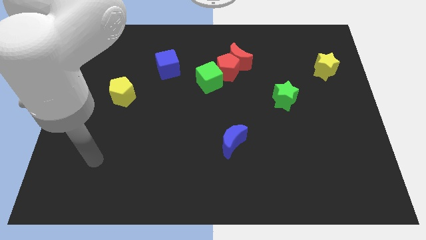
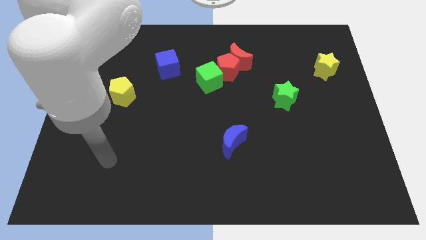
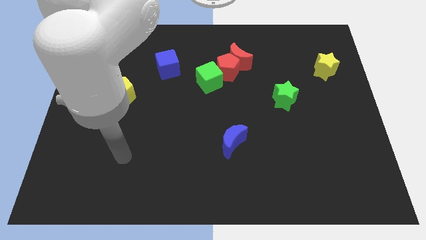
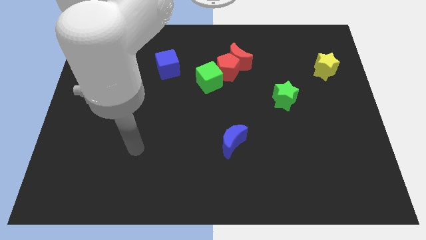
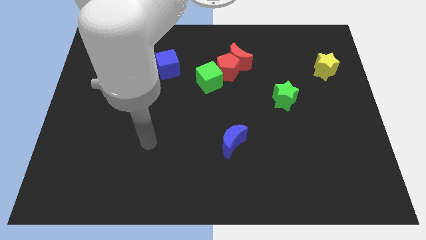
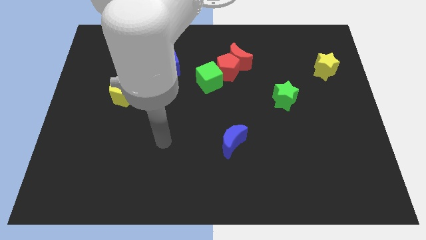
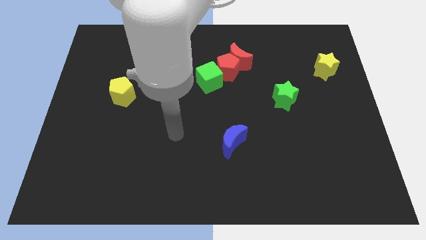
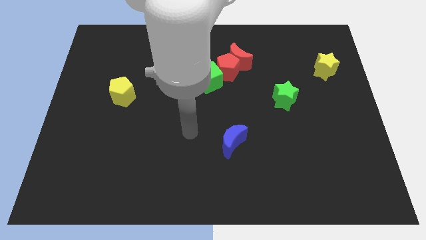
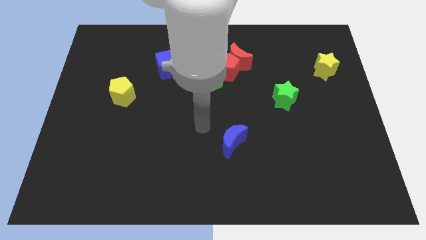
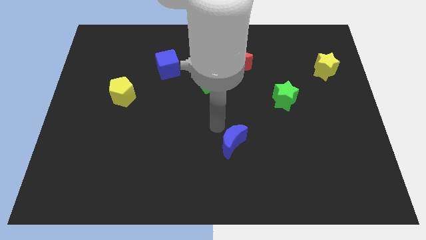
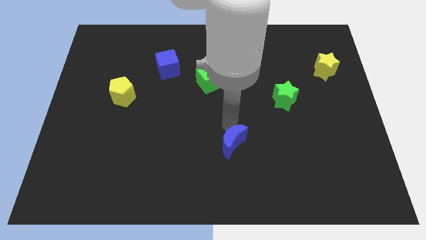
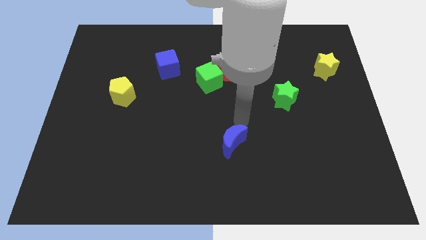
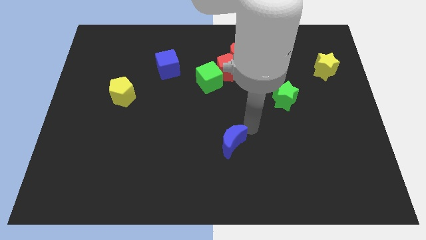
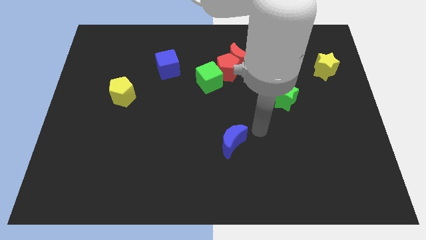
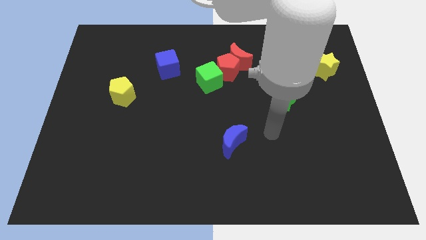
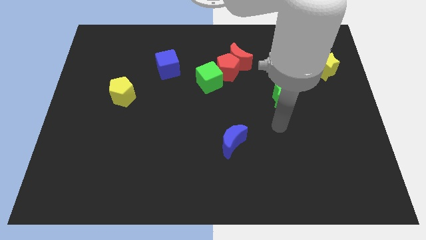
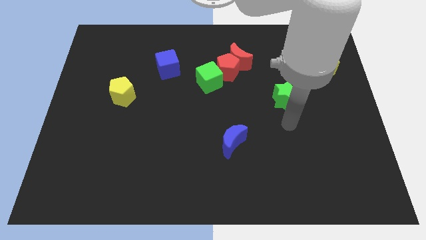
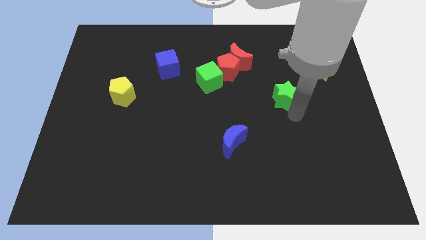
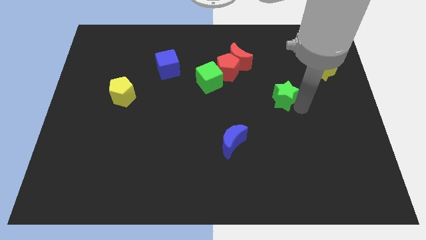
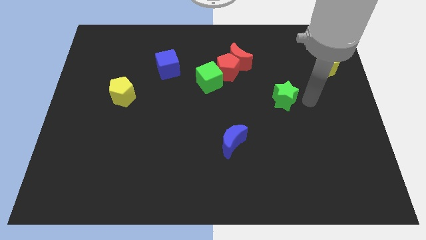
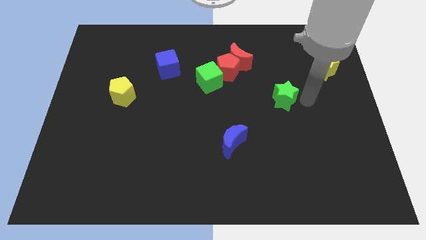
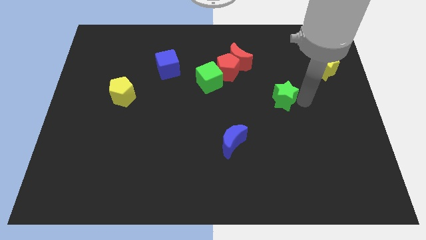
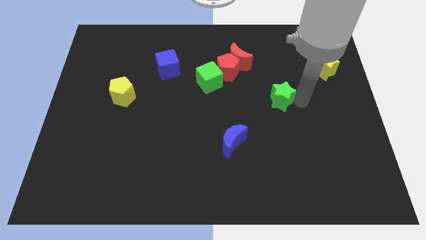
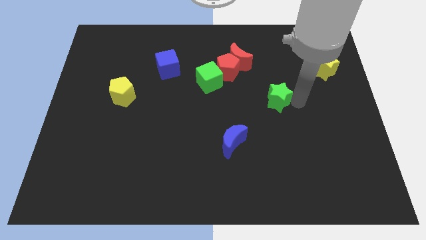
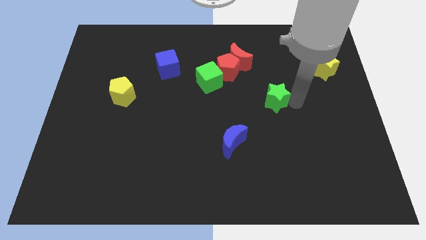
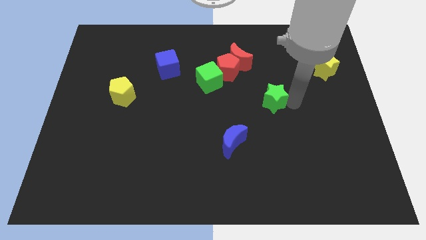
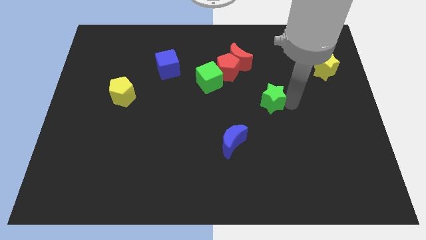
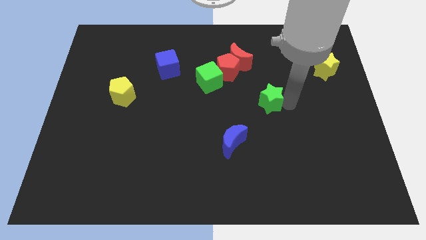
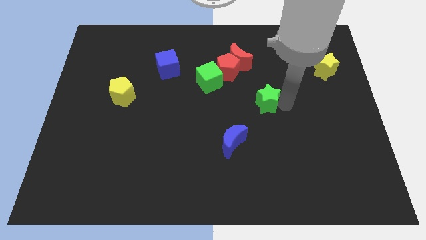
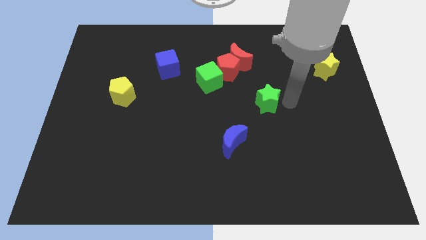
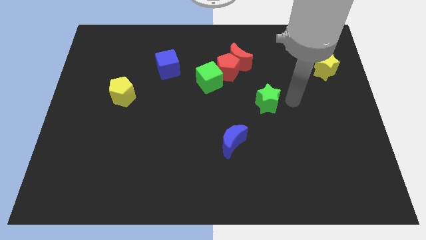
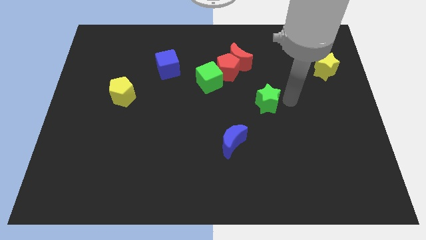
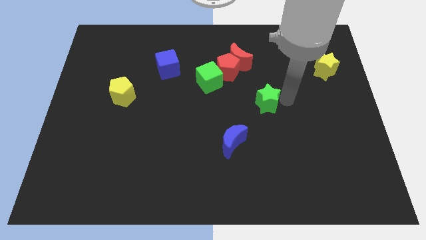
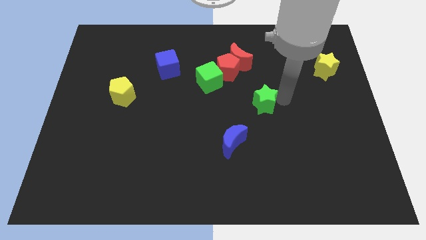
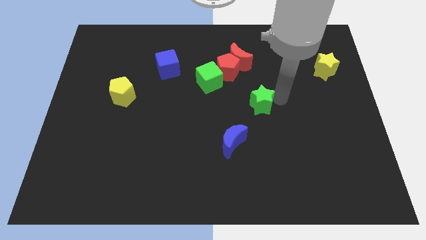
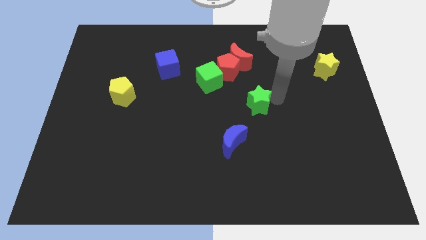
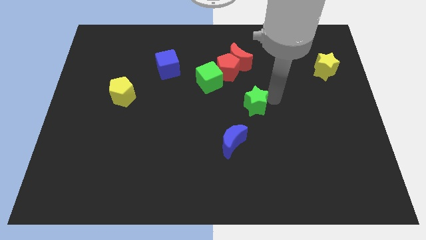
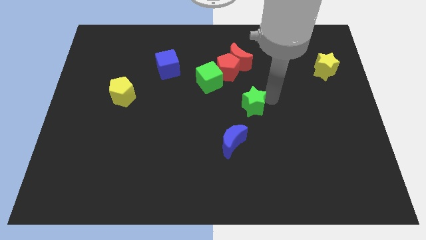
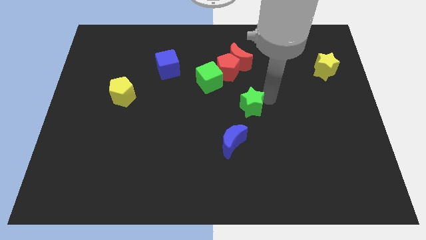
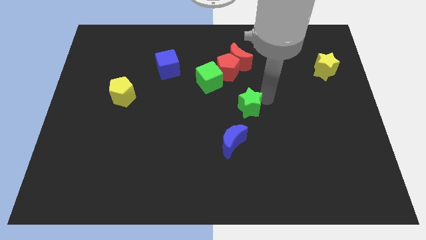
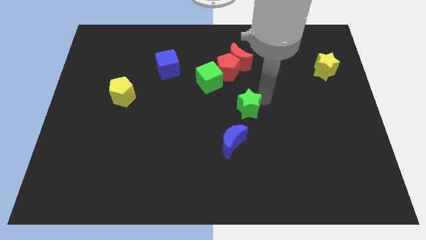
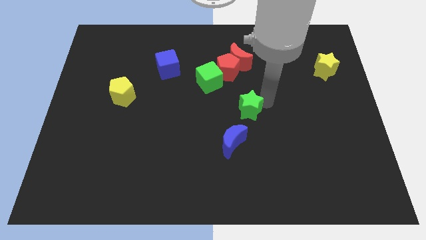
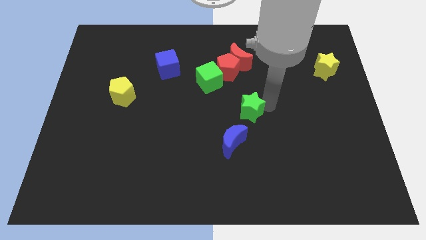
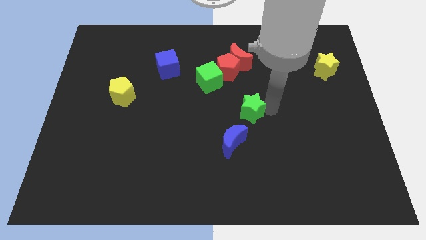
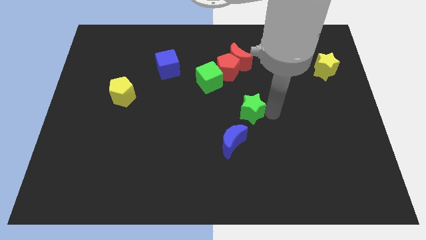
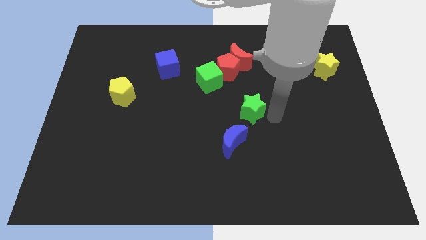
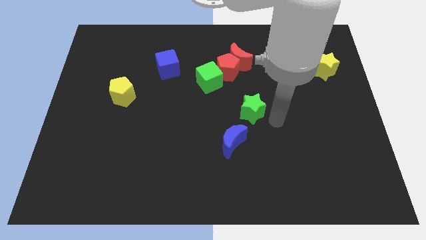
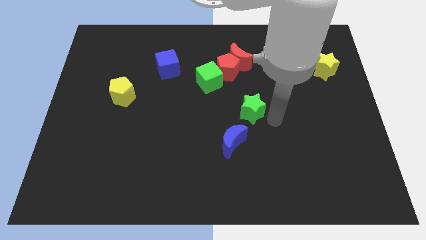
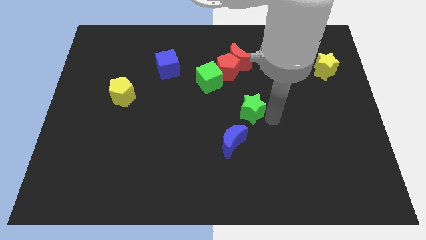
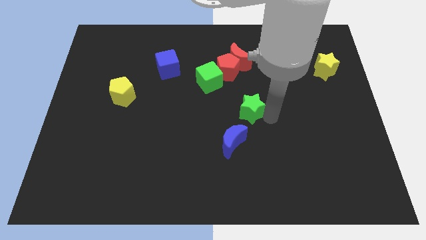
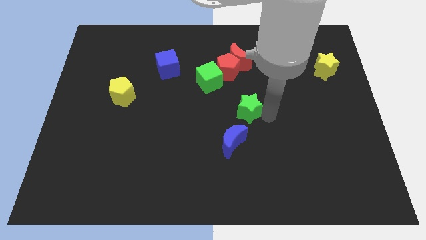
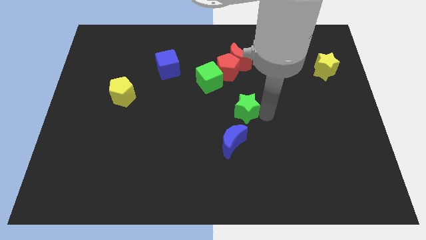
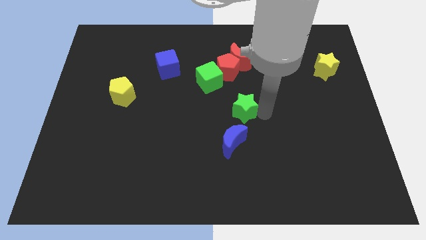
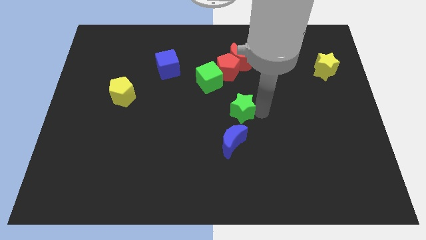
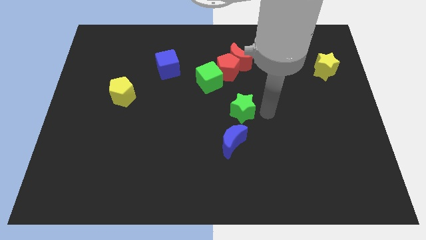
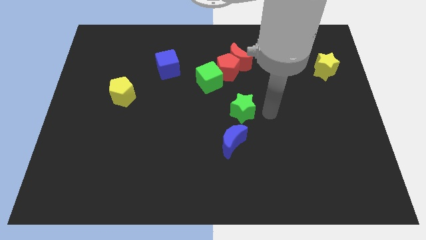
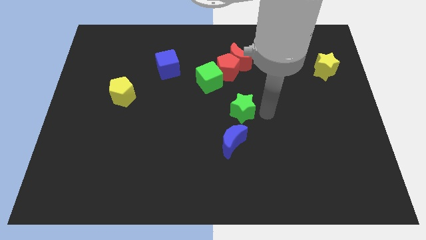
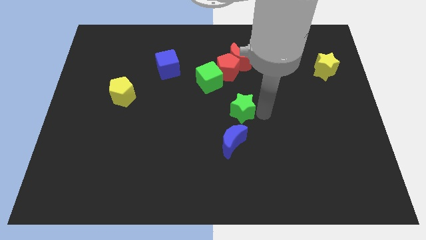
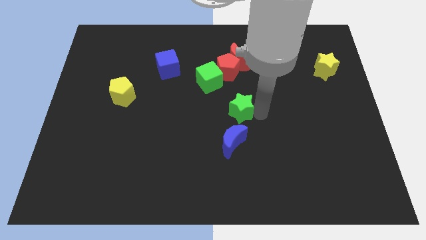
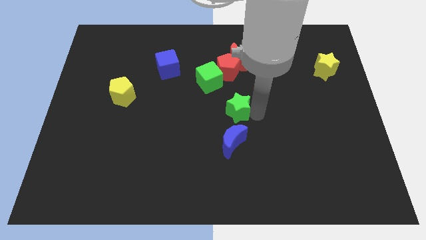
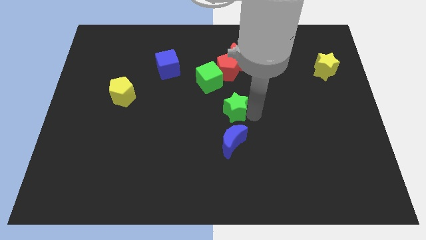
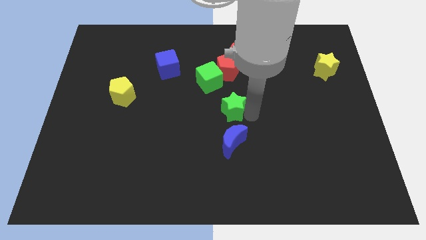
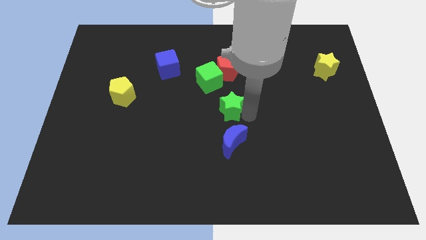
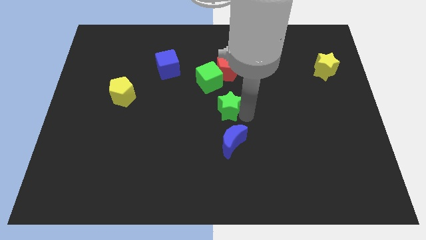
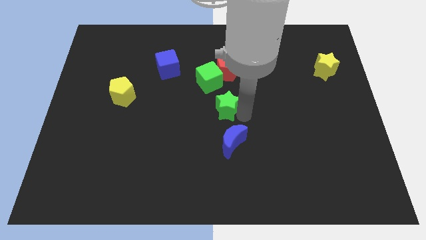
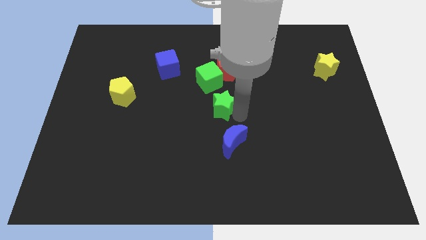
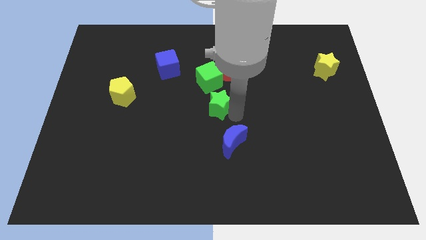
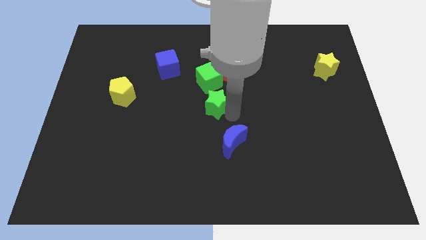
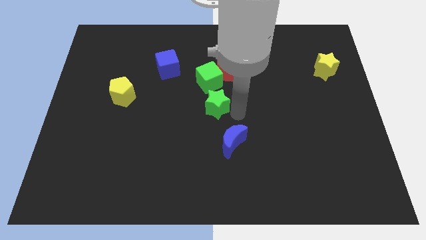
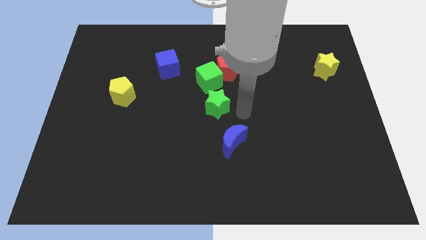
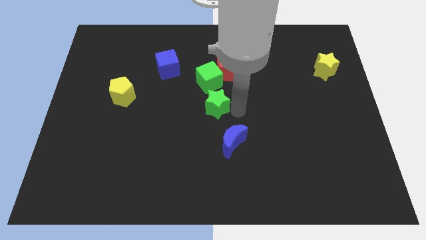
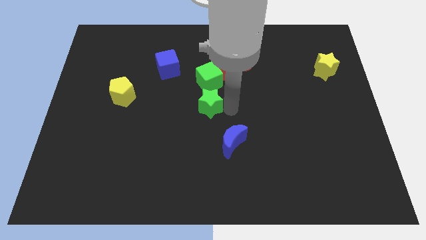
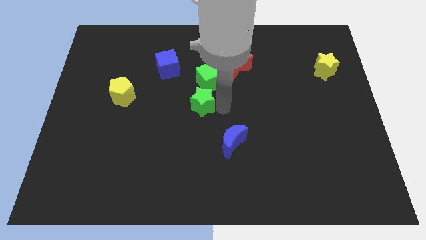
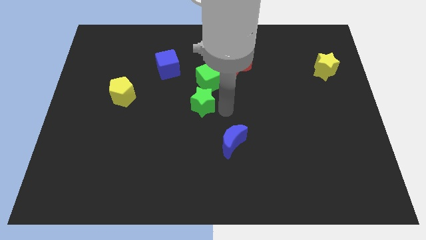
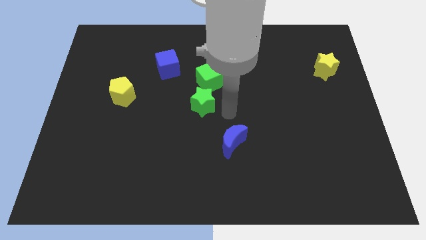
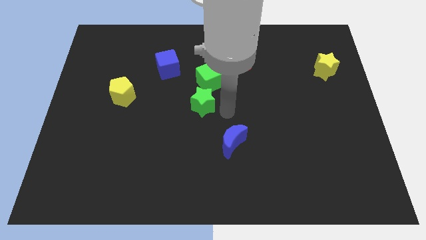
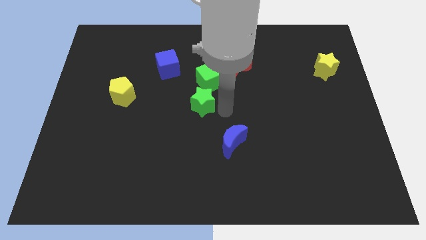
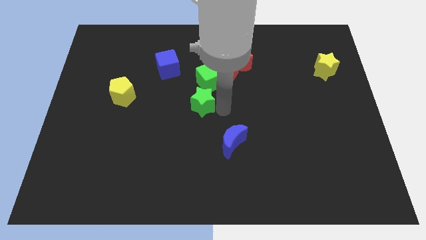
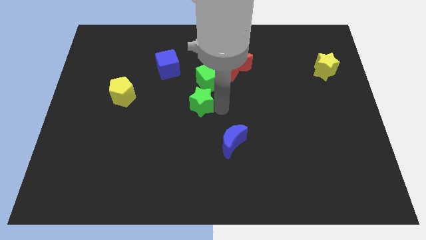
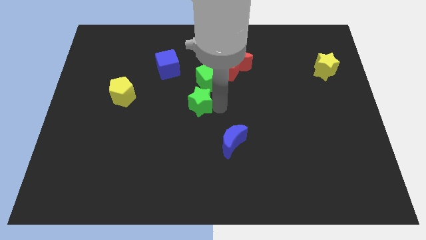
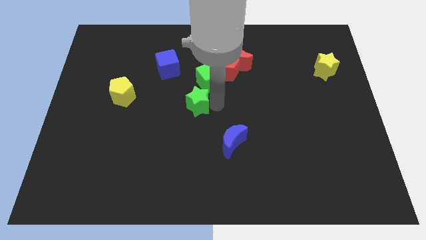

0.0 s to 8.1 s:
slide the green star to the left
